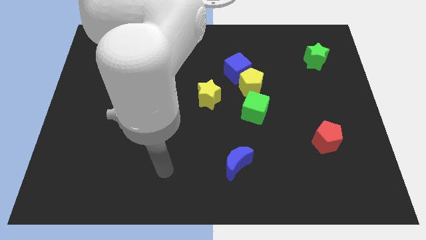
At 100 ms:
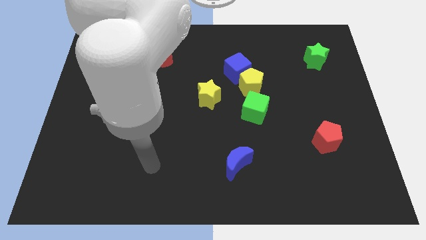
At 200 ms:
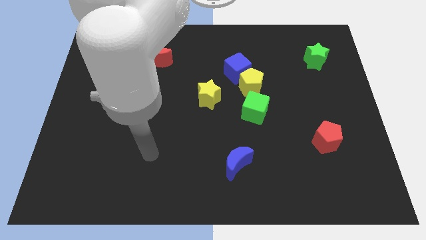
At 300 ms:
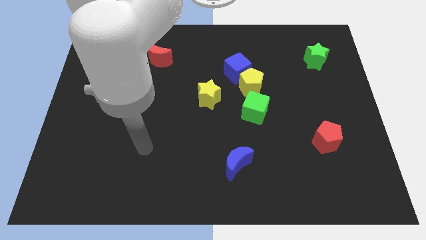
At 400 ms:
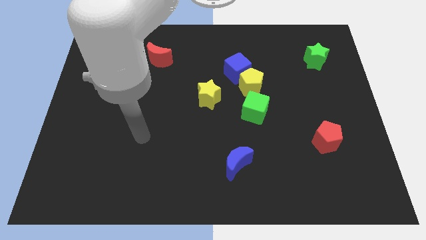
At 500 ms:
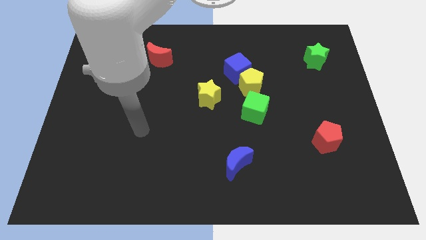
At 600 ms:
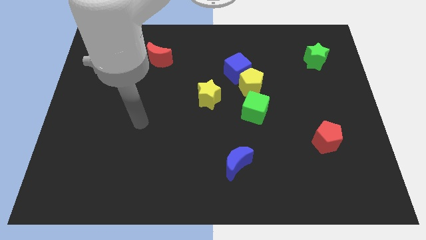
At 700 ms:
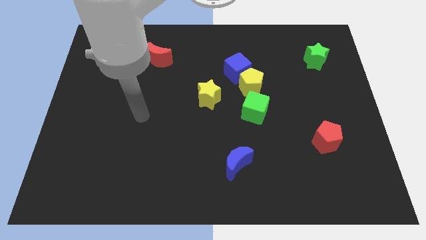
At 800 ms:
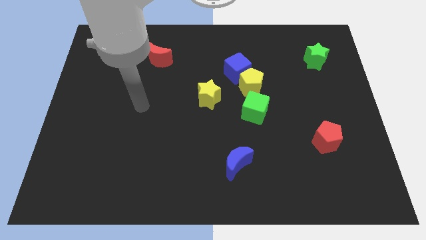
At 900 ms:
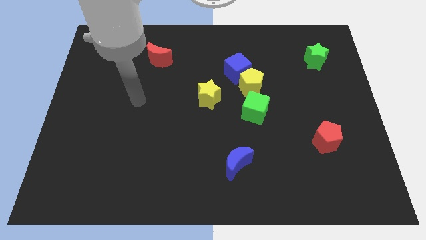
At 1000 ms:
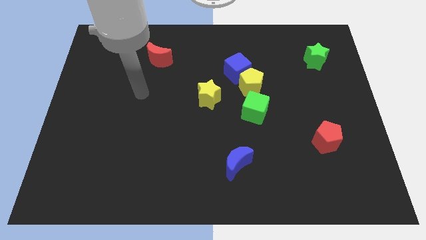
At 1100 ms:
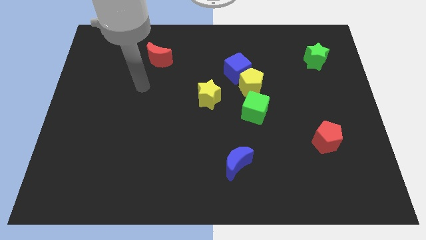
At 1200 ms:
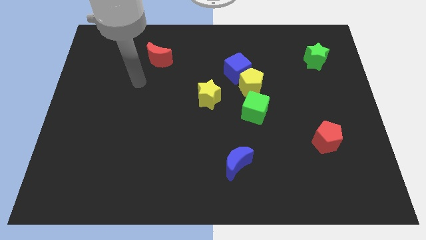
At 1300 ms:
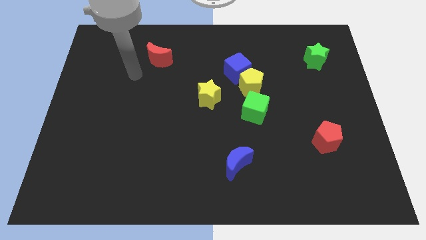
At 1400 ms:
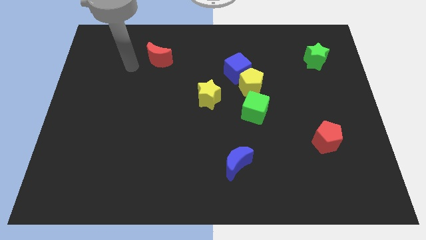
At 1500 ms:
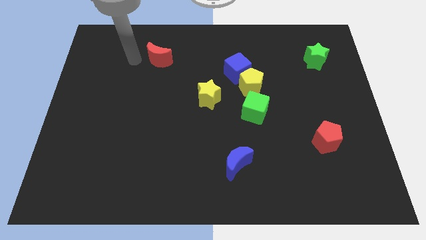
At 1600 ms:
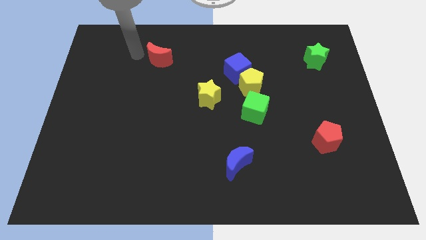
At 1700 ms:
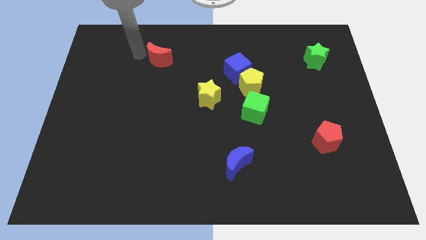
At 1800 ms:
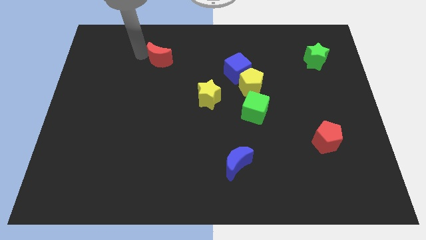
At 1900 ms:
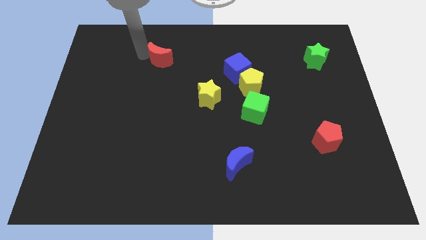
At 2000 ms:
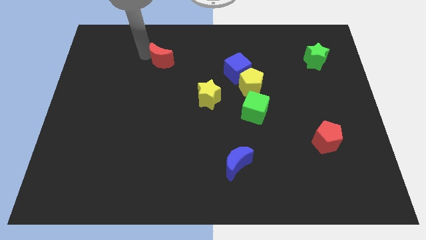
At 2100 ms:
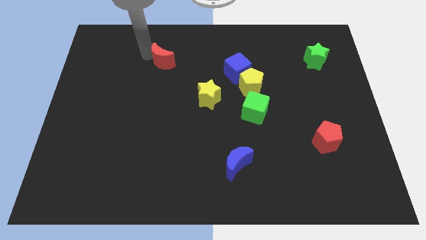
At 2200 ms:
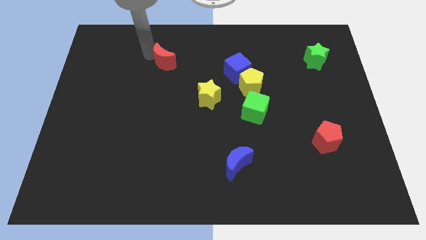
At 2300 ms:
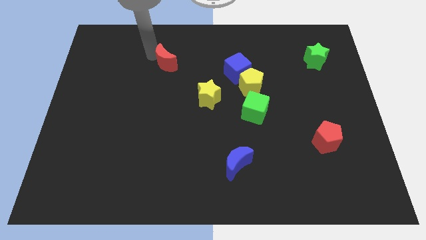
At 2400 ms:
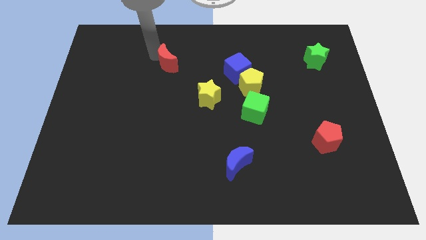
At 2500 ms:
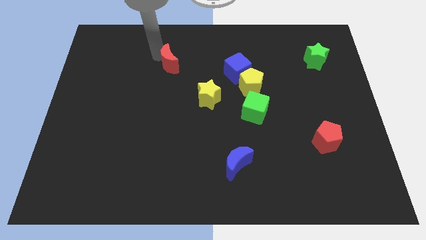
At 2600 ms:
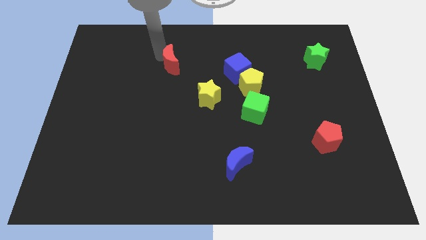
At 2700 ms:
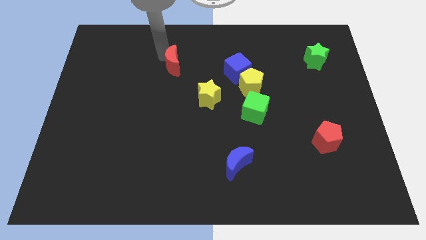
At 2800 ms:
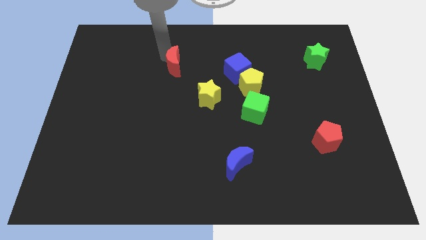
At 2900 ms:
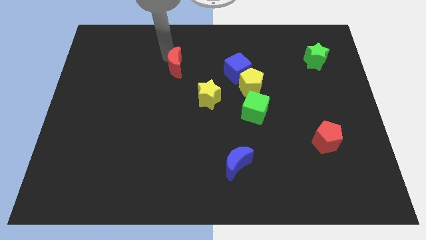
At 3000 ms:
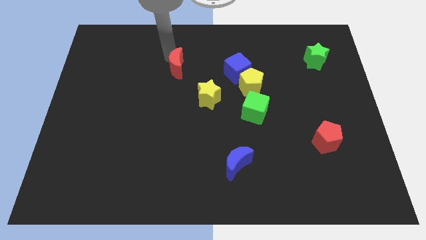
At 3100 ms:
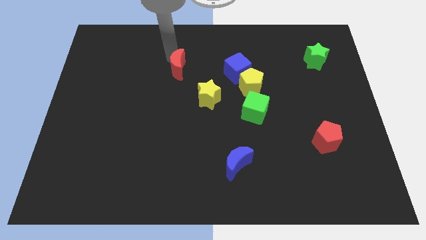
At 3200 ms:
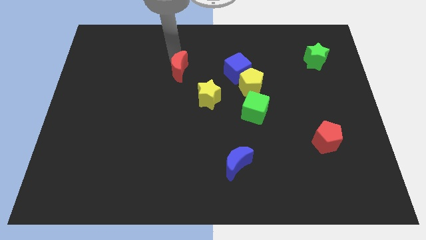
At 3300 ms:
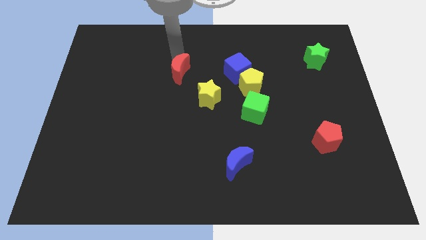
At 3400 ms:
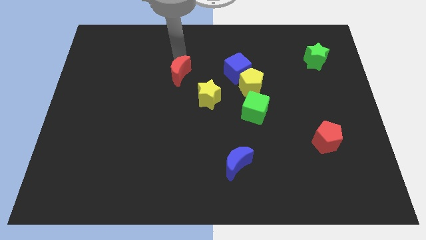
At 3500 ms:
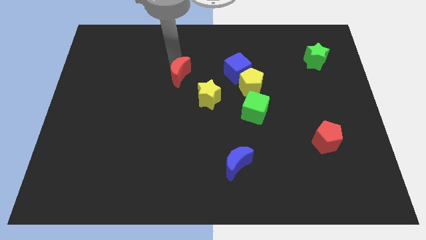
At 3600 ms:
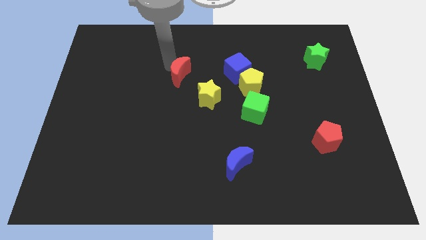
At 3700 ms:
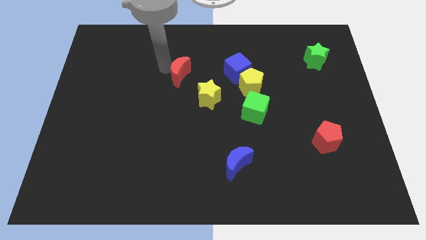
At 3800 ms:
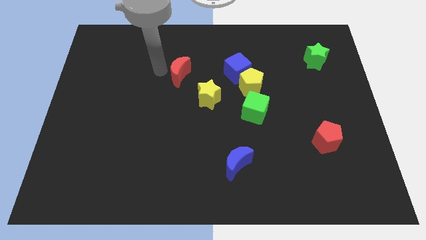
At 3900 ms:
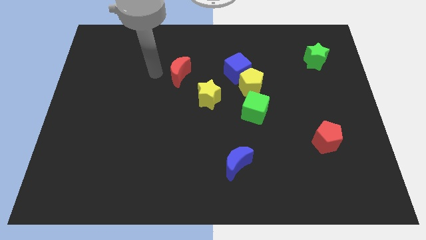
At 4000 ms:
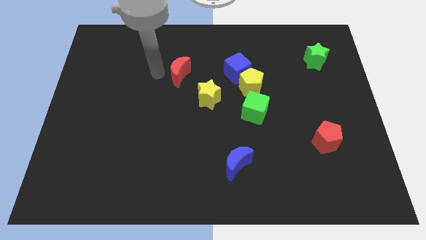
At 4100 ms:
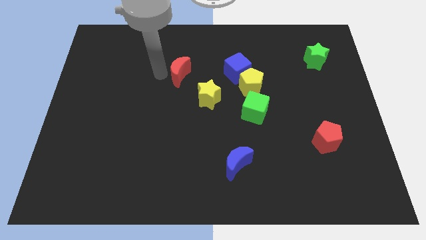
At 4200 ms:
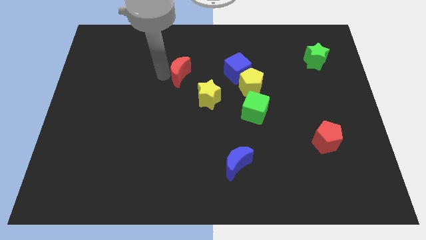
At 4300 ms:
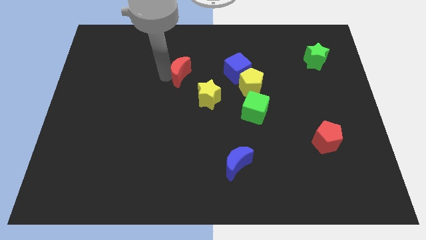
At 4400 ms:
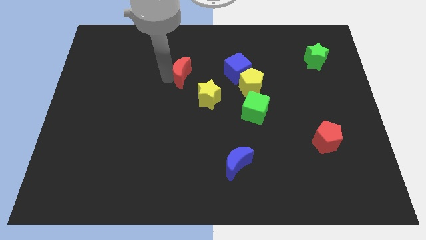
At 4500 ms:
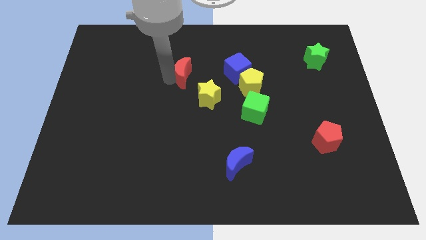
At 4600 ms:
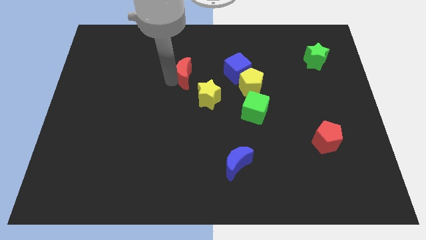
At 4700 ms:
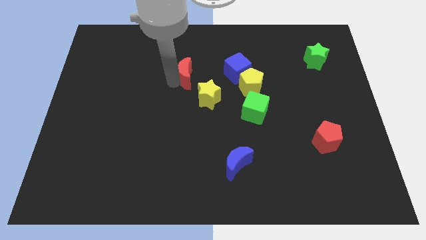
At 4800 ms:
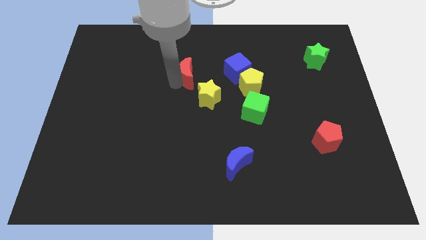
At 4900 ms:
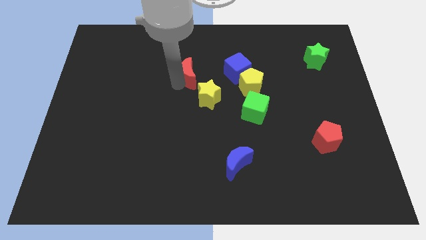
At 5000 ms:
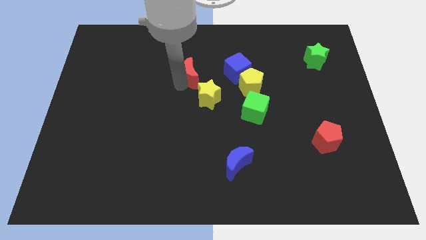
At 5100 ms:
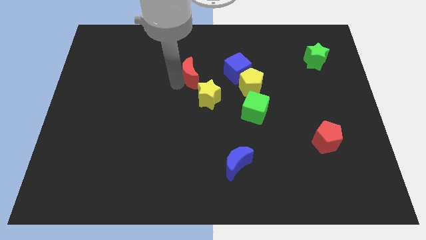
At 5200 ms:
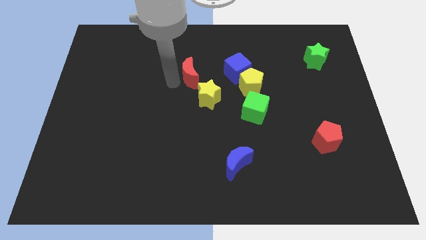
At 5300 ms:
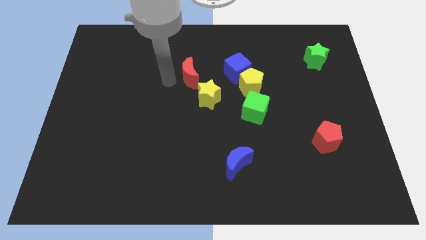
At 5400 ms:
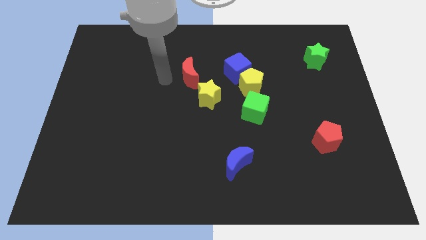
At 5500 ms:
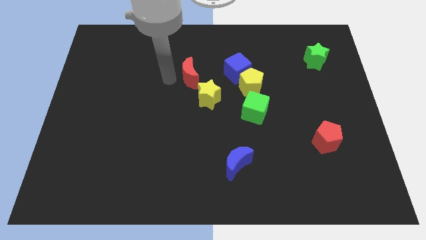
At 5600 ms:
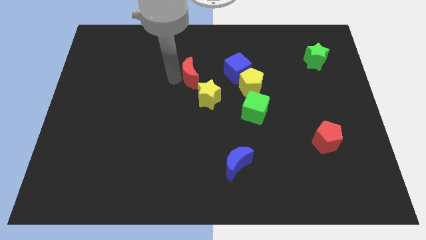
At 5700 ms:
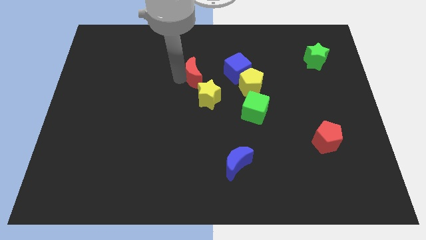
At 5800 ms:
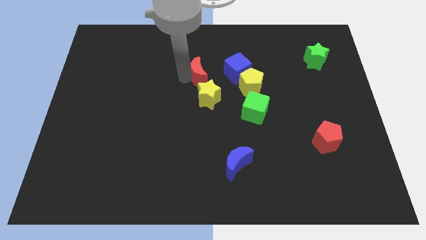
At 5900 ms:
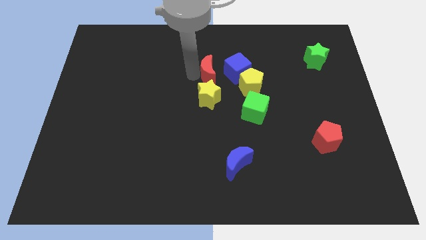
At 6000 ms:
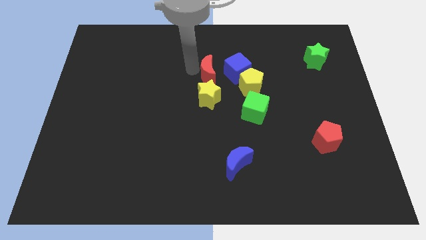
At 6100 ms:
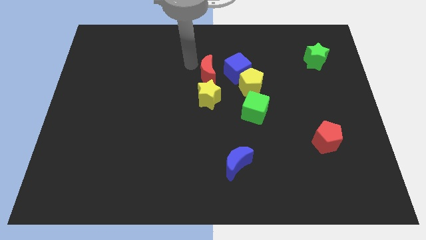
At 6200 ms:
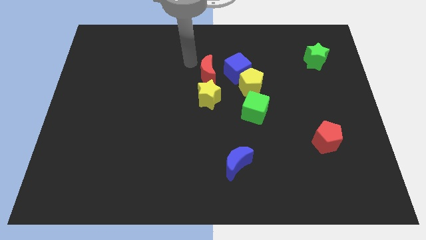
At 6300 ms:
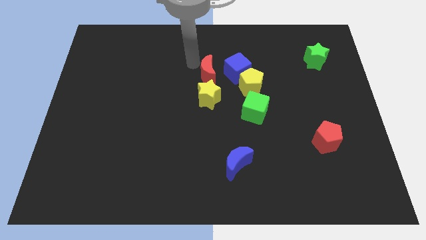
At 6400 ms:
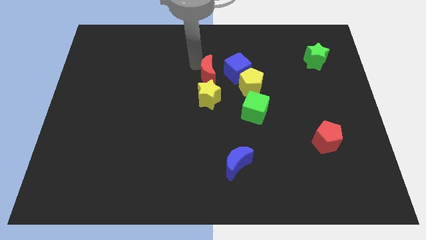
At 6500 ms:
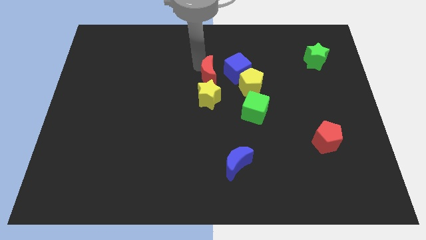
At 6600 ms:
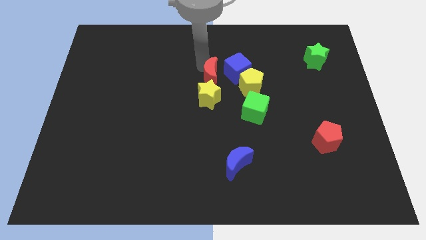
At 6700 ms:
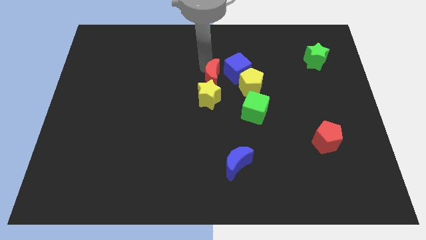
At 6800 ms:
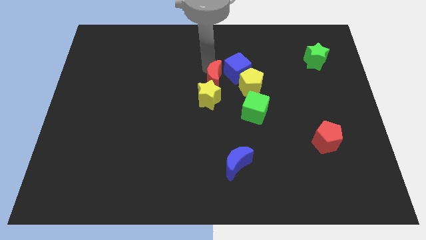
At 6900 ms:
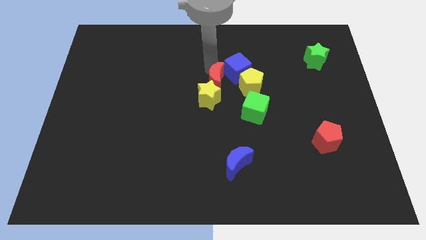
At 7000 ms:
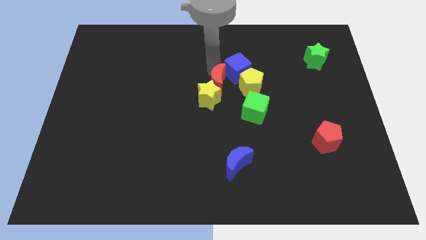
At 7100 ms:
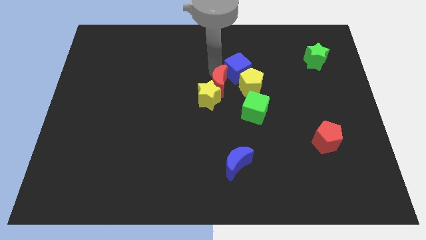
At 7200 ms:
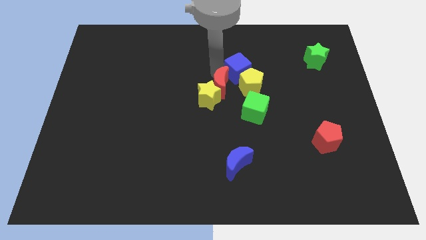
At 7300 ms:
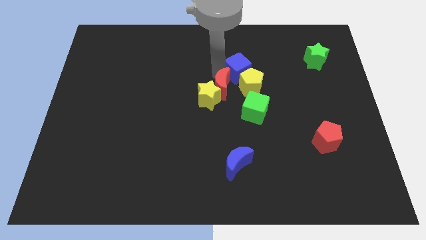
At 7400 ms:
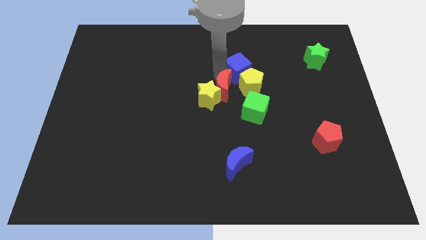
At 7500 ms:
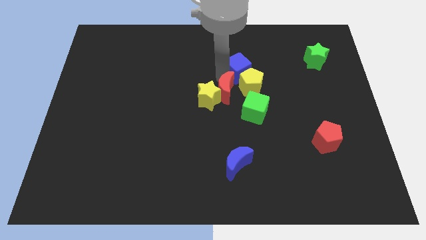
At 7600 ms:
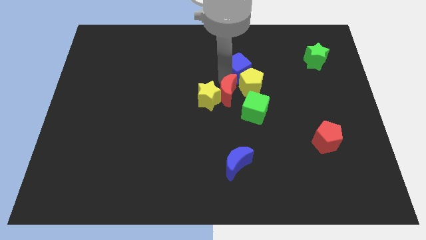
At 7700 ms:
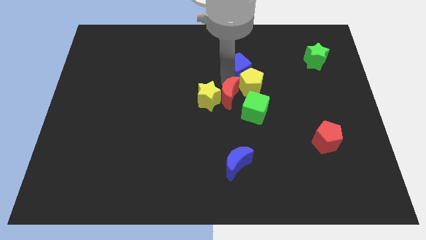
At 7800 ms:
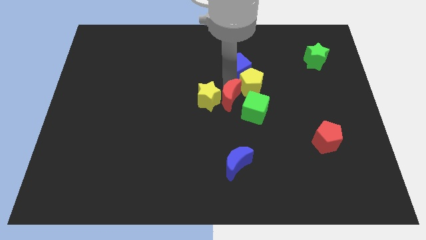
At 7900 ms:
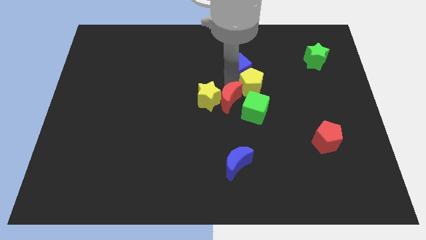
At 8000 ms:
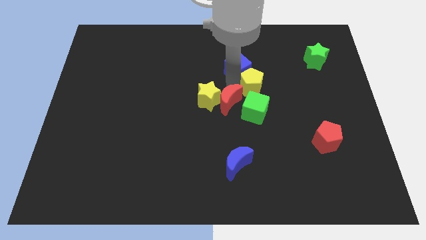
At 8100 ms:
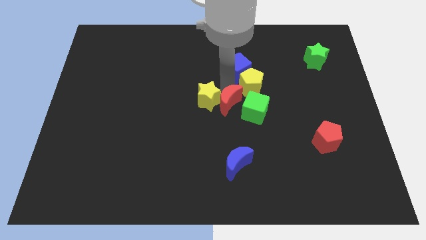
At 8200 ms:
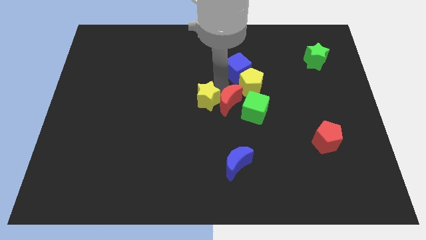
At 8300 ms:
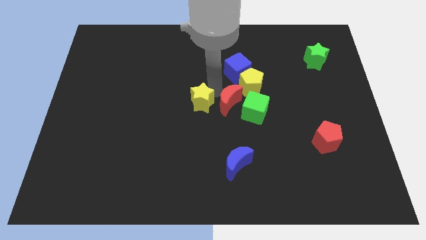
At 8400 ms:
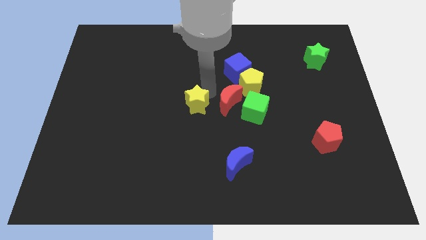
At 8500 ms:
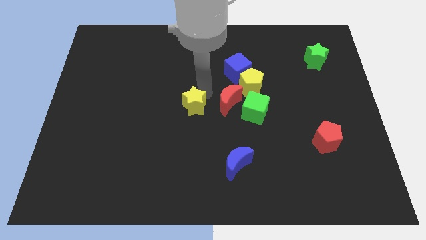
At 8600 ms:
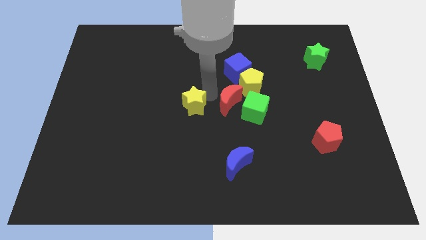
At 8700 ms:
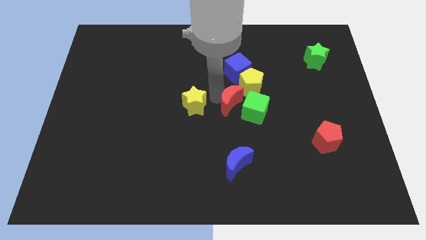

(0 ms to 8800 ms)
slide the red moon close to the green cube
